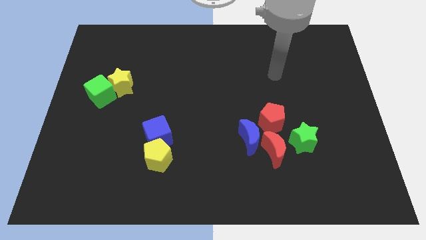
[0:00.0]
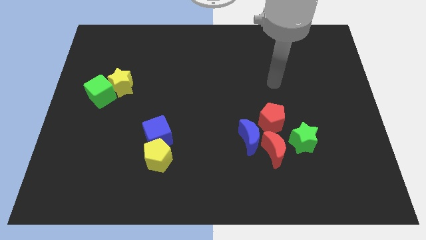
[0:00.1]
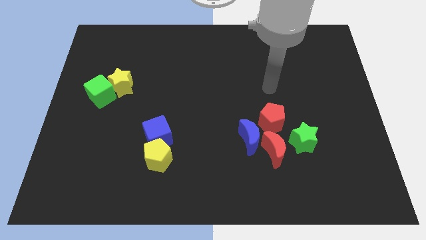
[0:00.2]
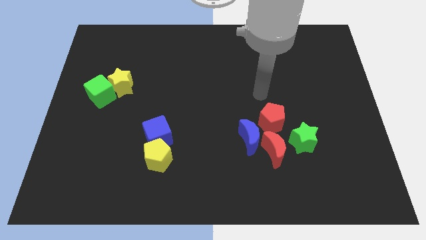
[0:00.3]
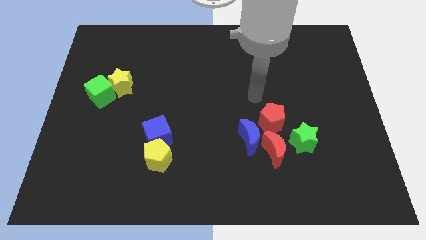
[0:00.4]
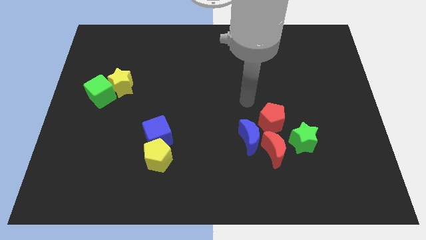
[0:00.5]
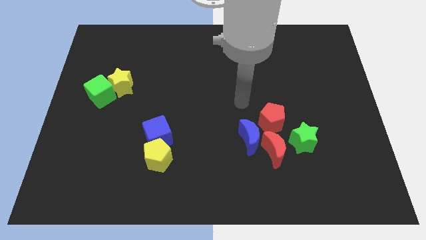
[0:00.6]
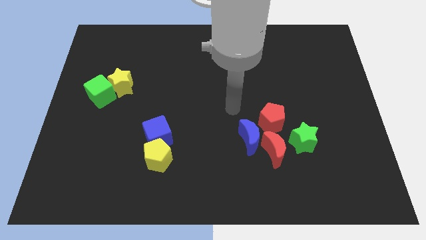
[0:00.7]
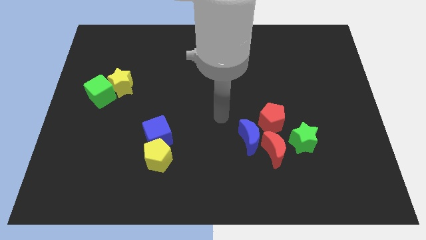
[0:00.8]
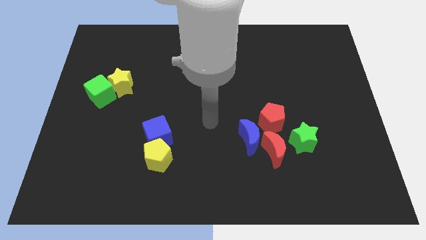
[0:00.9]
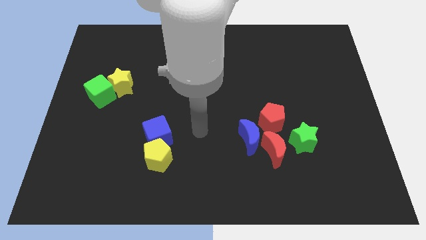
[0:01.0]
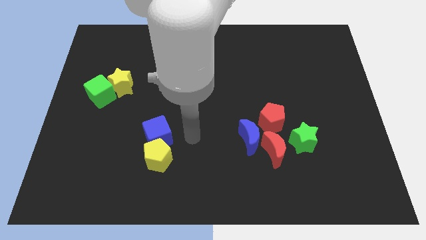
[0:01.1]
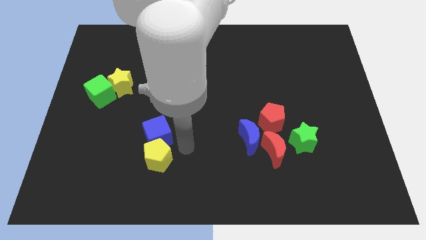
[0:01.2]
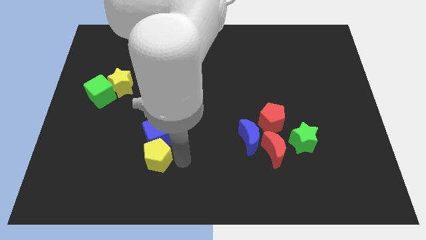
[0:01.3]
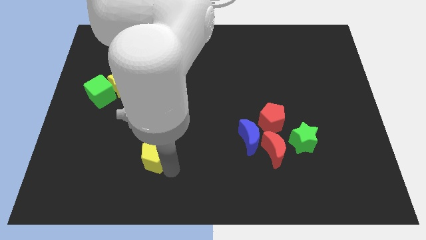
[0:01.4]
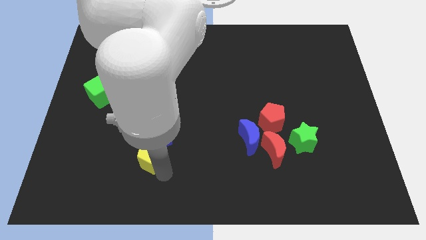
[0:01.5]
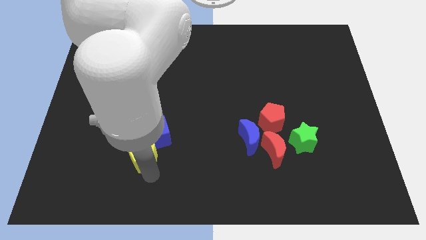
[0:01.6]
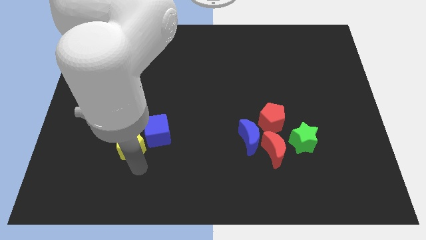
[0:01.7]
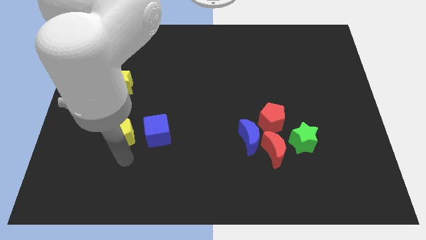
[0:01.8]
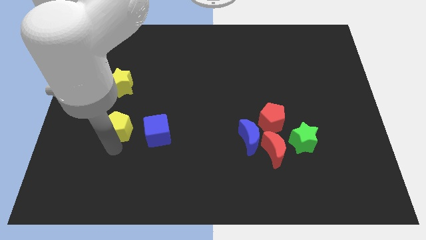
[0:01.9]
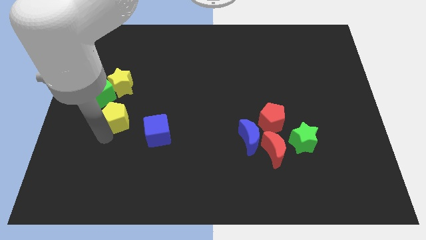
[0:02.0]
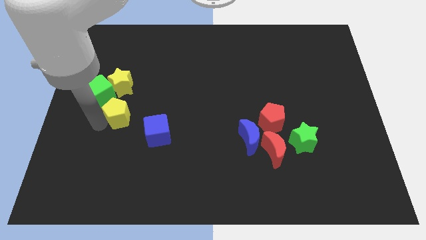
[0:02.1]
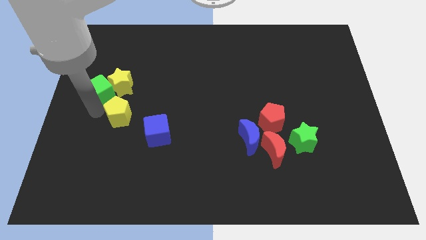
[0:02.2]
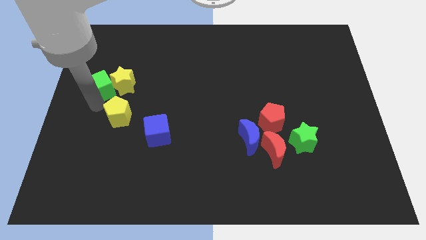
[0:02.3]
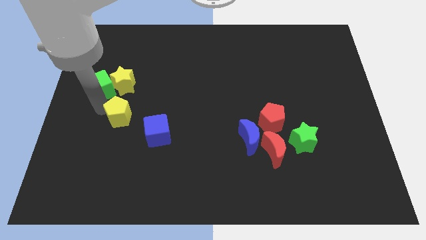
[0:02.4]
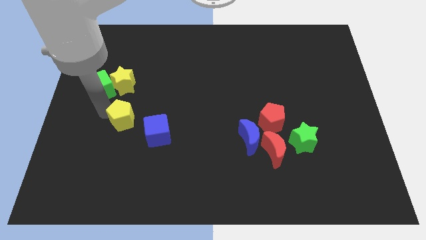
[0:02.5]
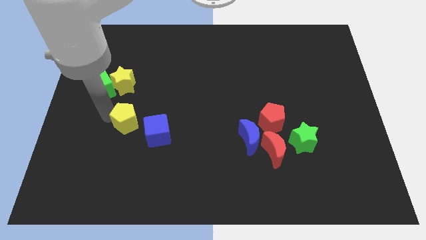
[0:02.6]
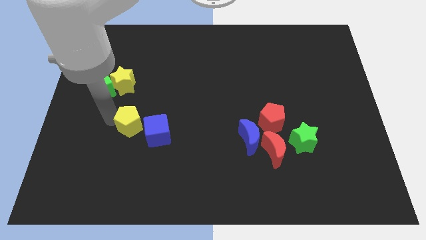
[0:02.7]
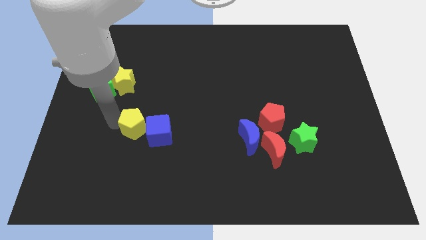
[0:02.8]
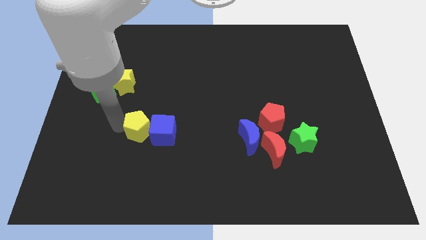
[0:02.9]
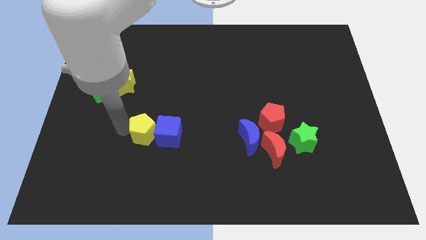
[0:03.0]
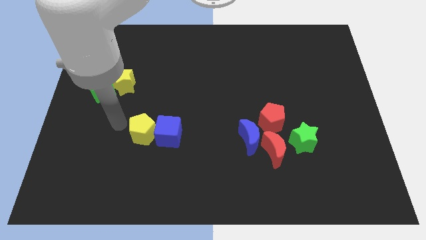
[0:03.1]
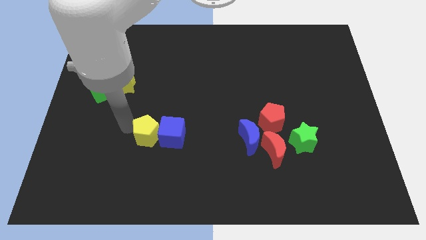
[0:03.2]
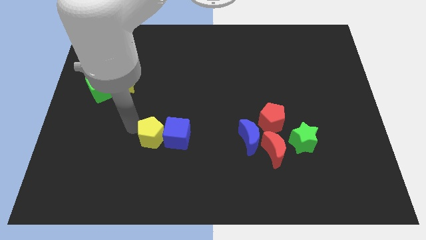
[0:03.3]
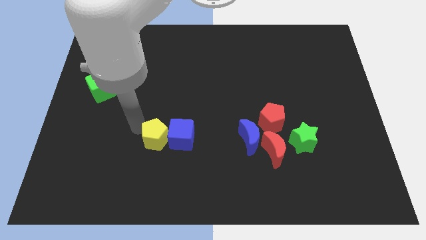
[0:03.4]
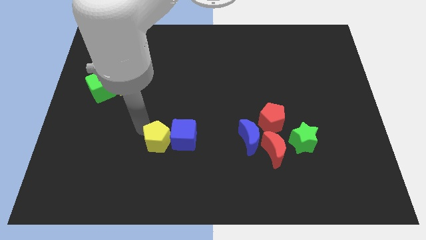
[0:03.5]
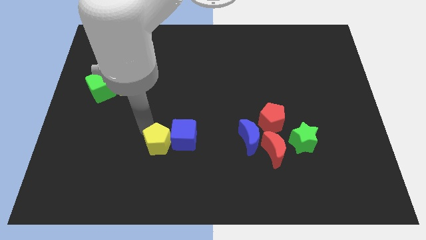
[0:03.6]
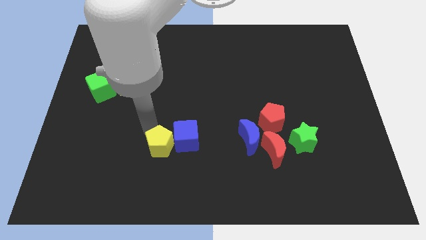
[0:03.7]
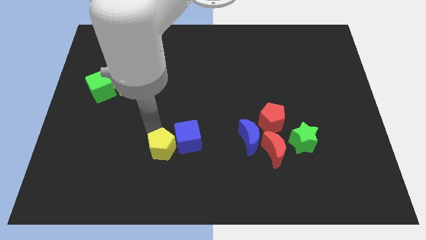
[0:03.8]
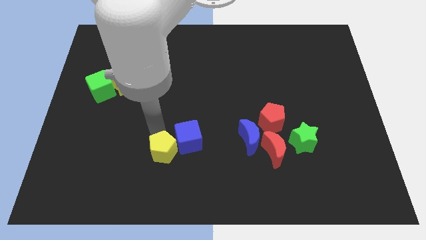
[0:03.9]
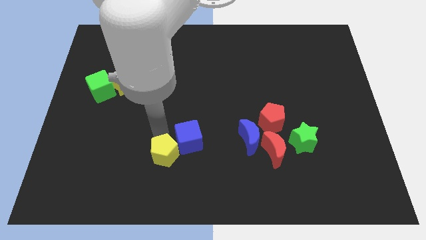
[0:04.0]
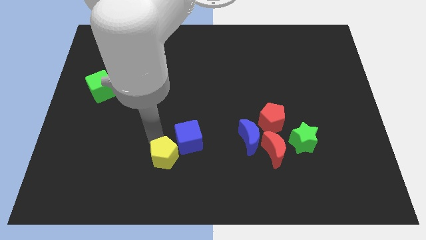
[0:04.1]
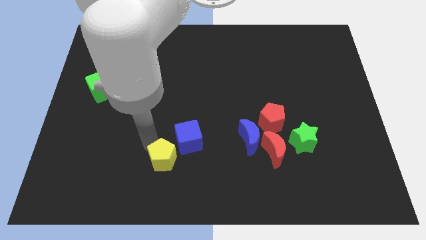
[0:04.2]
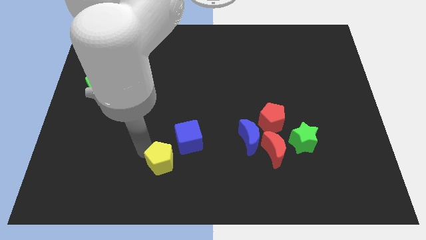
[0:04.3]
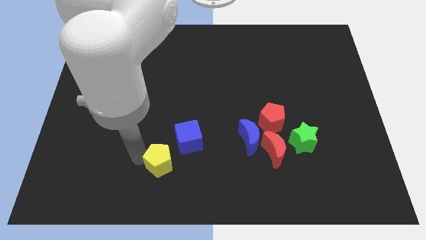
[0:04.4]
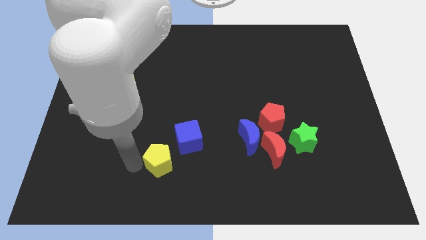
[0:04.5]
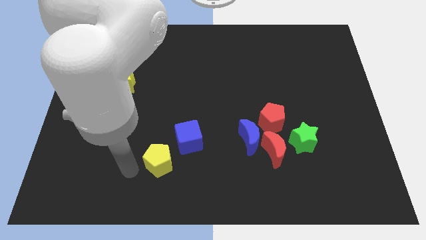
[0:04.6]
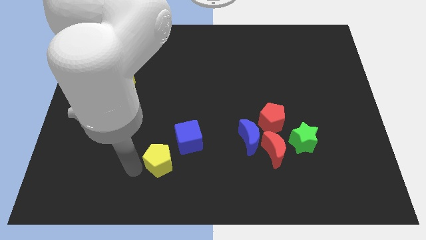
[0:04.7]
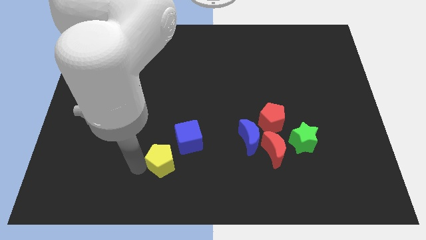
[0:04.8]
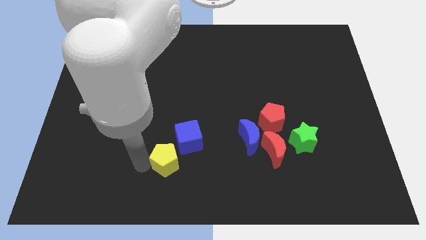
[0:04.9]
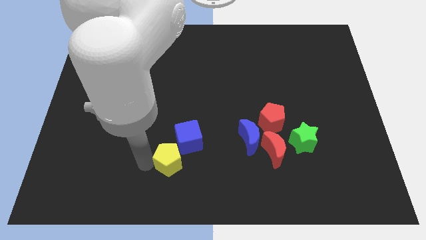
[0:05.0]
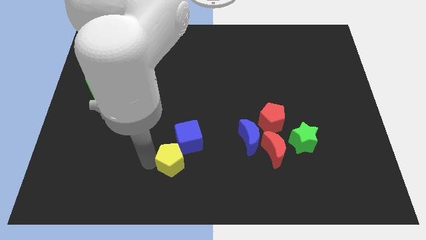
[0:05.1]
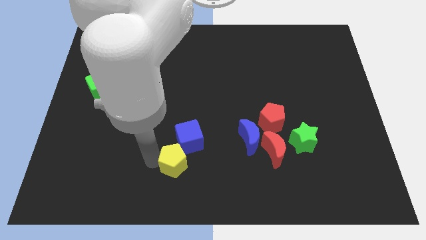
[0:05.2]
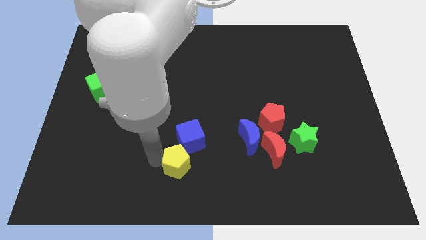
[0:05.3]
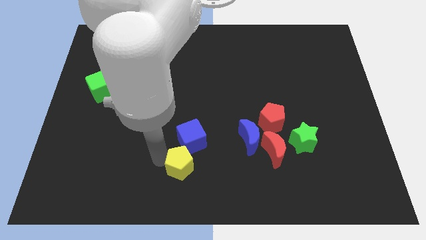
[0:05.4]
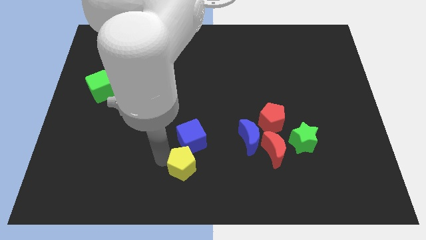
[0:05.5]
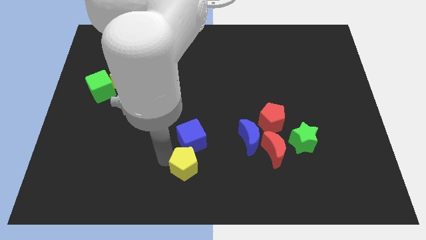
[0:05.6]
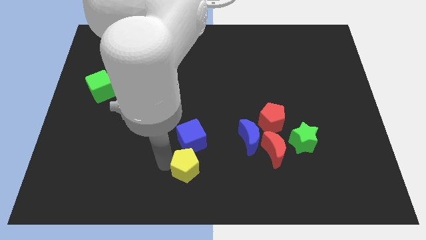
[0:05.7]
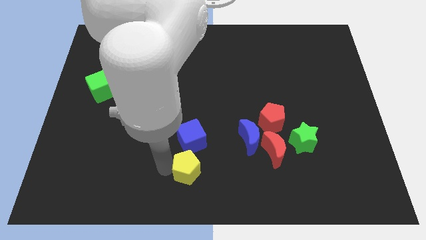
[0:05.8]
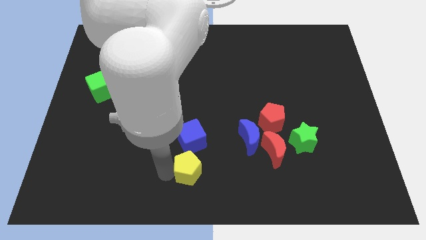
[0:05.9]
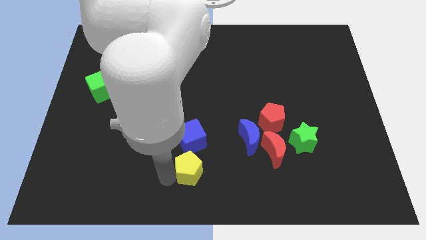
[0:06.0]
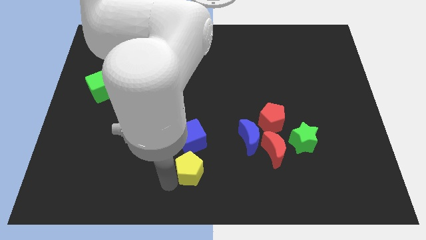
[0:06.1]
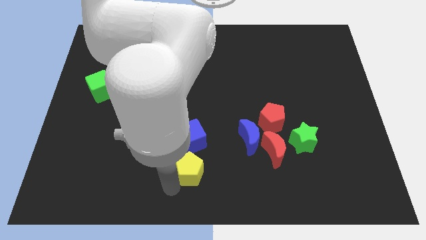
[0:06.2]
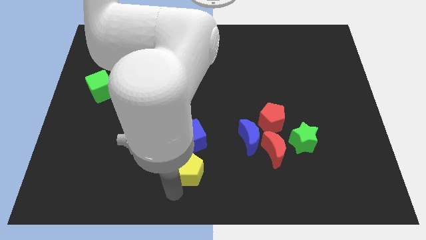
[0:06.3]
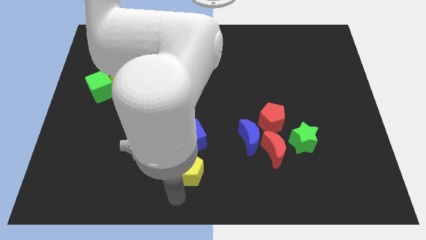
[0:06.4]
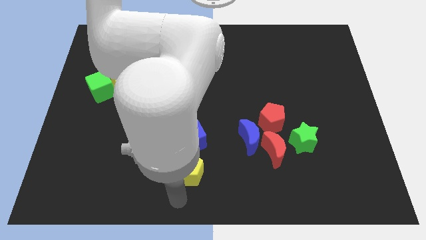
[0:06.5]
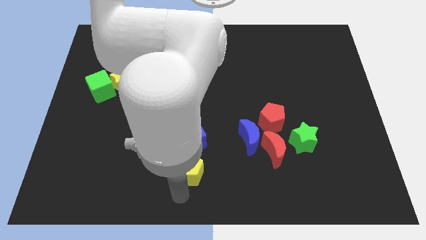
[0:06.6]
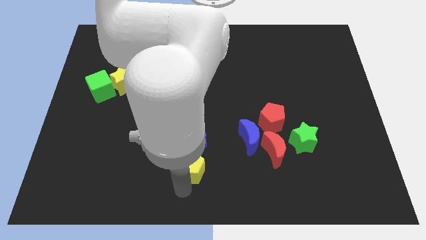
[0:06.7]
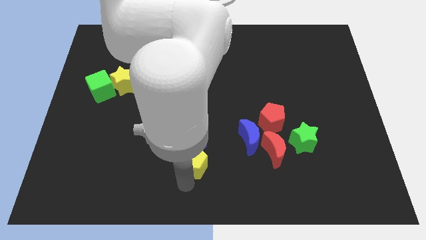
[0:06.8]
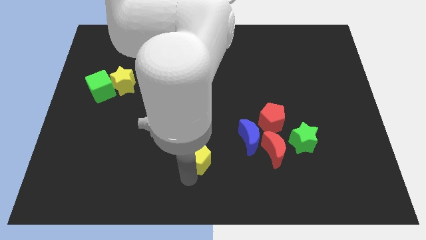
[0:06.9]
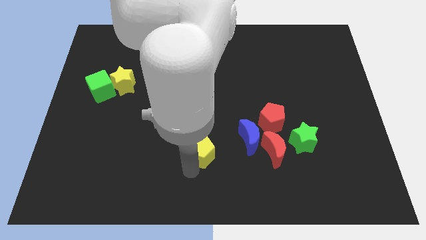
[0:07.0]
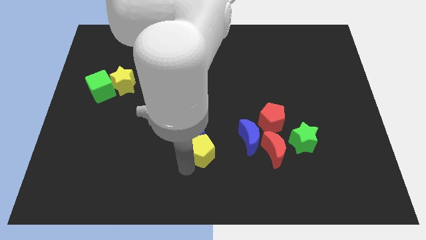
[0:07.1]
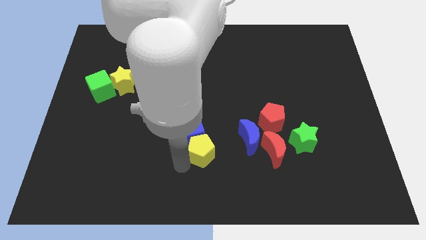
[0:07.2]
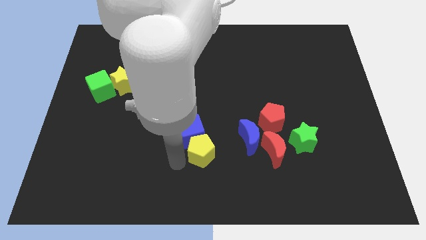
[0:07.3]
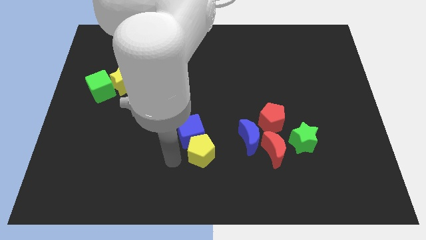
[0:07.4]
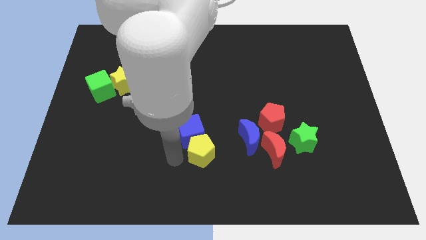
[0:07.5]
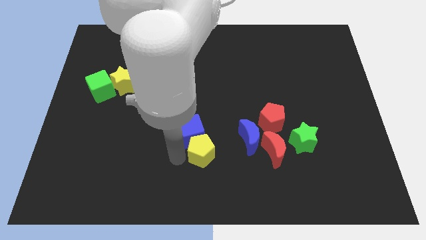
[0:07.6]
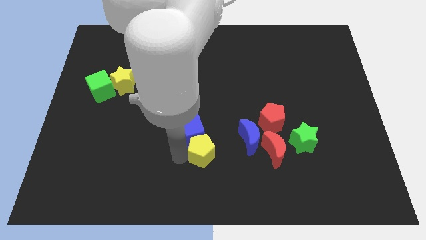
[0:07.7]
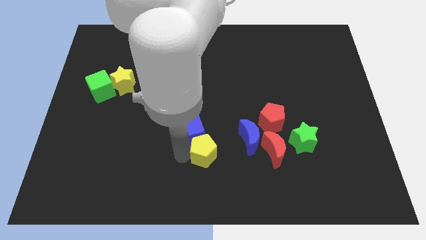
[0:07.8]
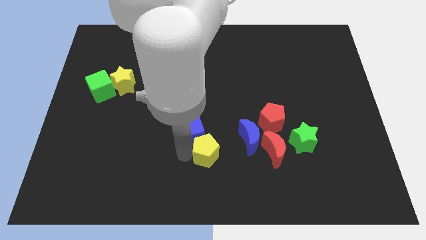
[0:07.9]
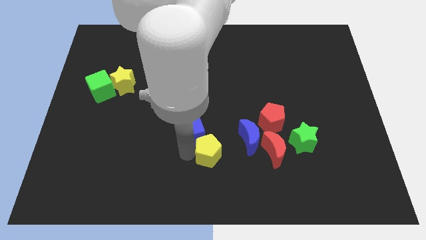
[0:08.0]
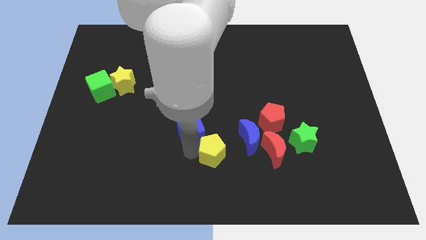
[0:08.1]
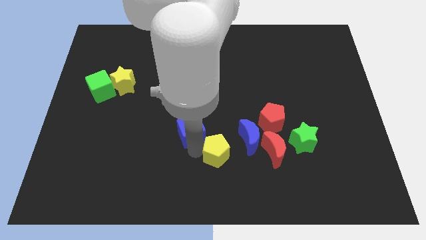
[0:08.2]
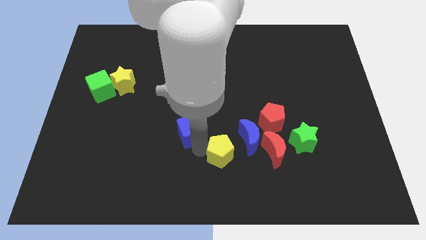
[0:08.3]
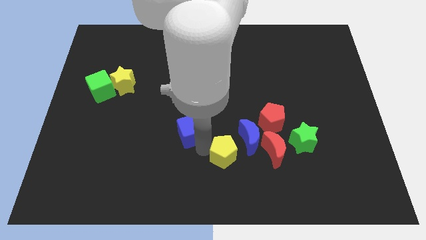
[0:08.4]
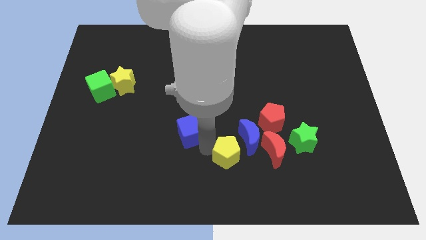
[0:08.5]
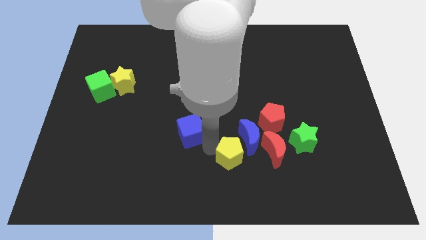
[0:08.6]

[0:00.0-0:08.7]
put the yellow pentagon to the blue moon
